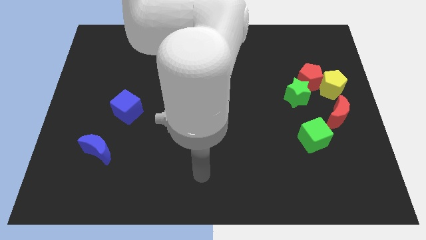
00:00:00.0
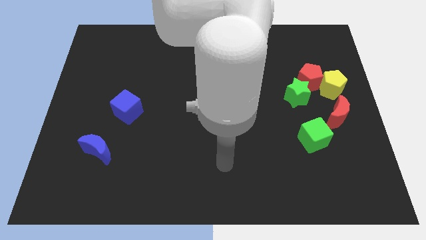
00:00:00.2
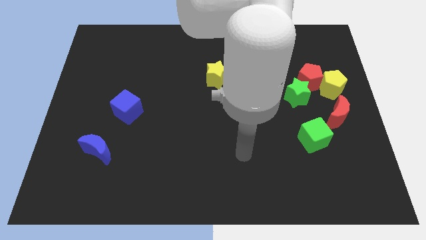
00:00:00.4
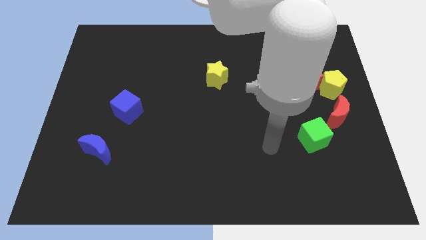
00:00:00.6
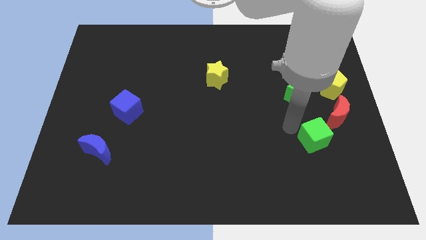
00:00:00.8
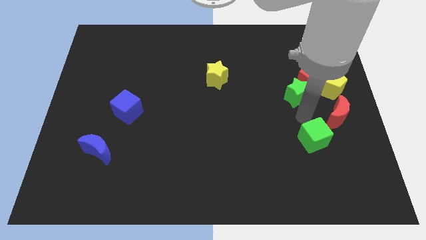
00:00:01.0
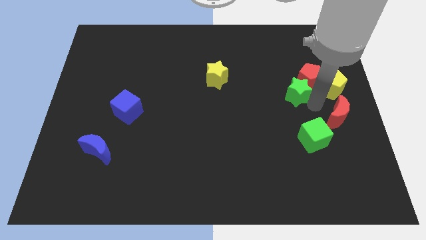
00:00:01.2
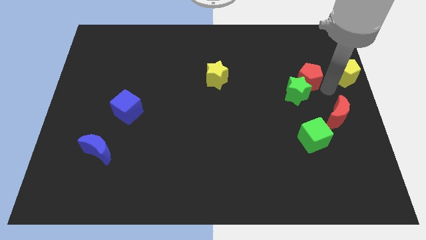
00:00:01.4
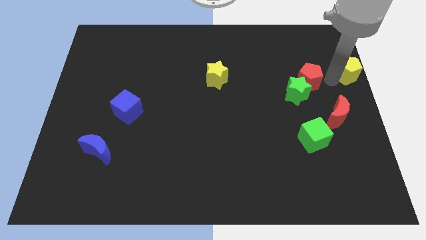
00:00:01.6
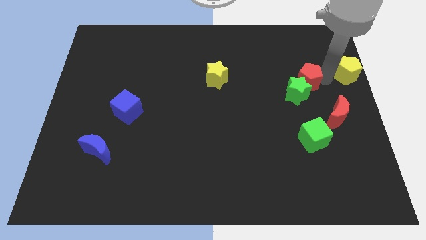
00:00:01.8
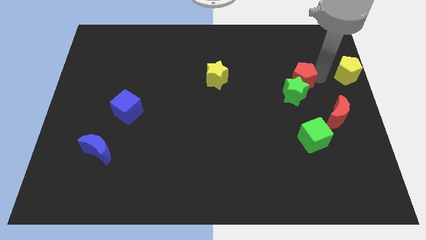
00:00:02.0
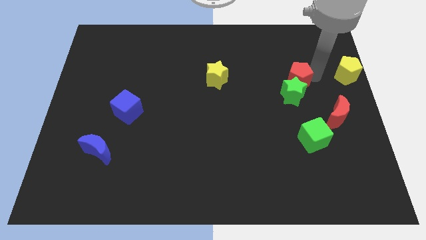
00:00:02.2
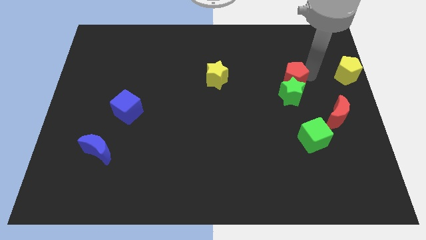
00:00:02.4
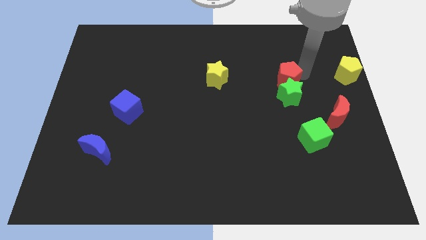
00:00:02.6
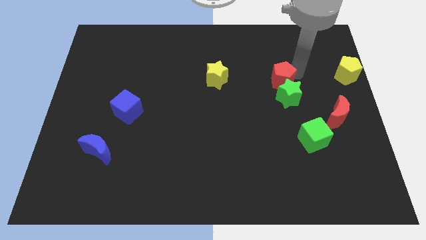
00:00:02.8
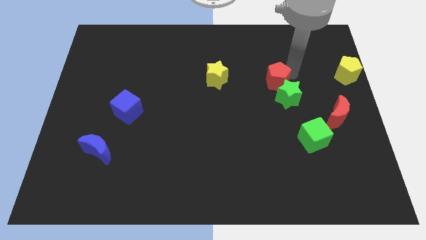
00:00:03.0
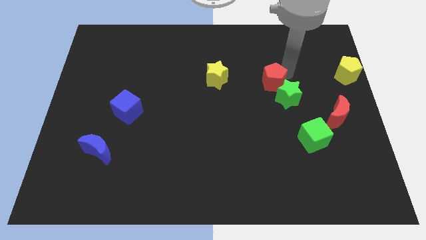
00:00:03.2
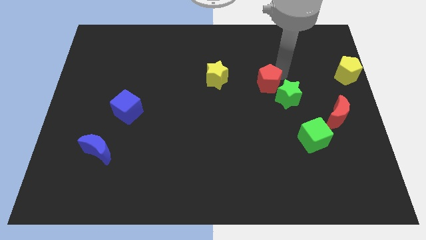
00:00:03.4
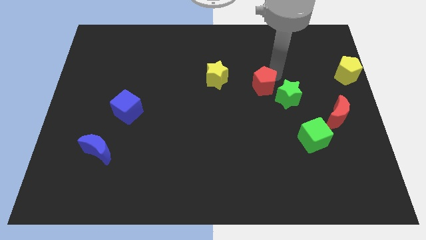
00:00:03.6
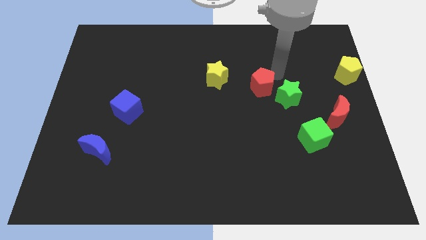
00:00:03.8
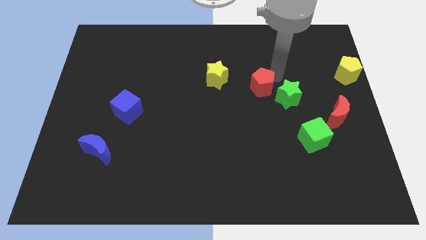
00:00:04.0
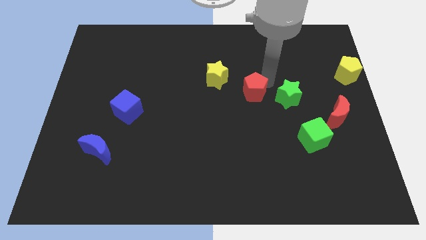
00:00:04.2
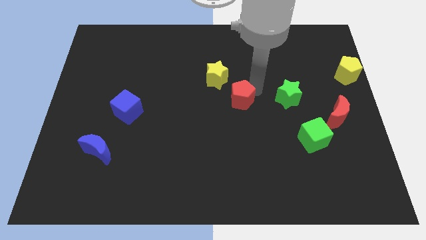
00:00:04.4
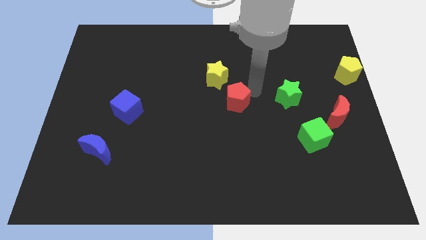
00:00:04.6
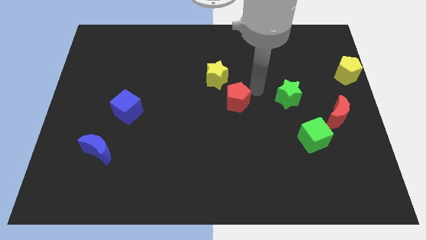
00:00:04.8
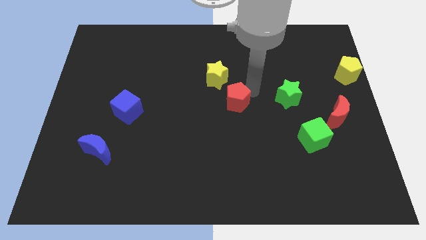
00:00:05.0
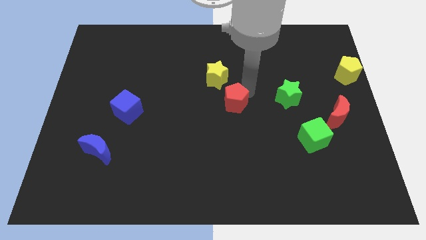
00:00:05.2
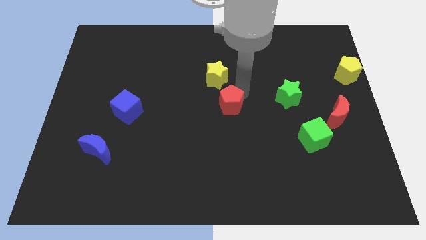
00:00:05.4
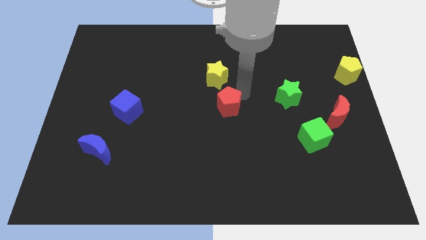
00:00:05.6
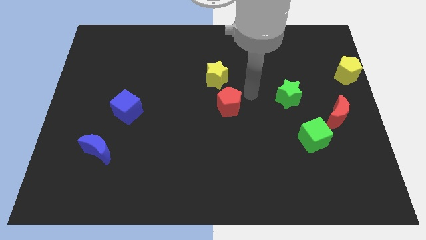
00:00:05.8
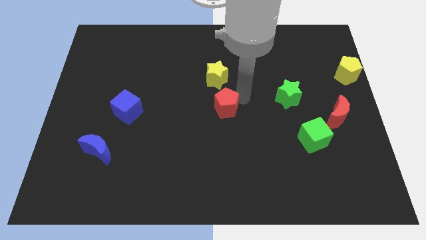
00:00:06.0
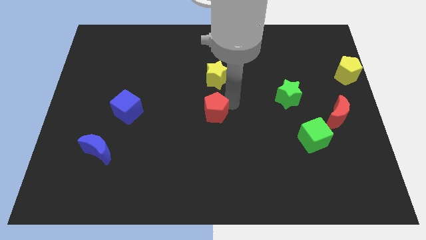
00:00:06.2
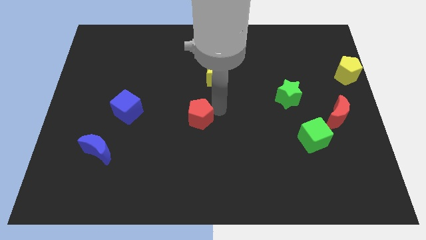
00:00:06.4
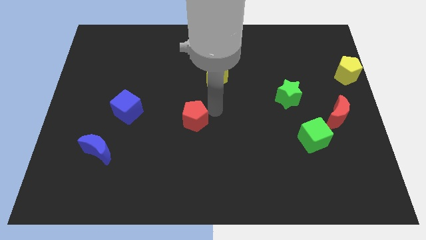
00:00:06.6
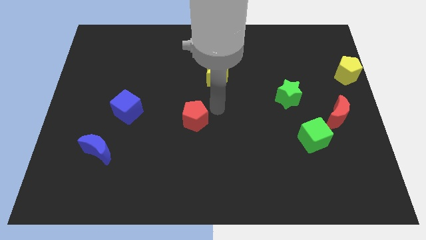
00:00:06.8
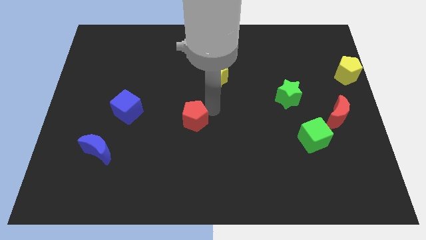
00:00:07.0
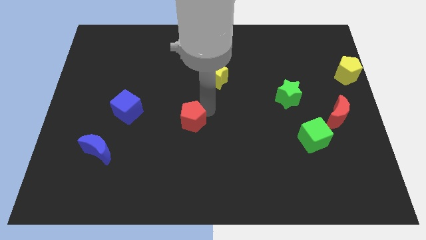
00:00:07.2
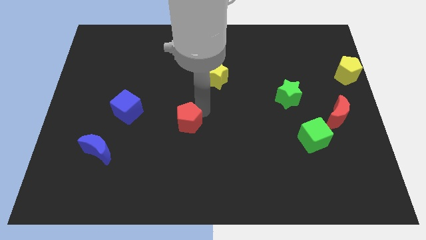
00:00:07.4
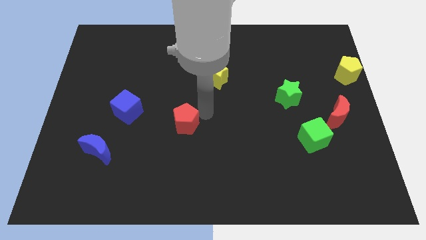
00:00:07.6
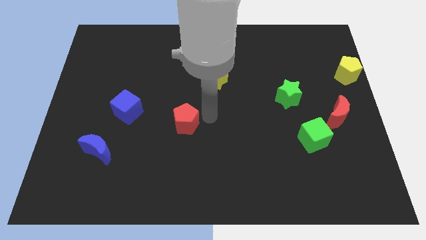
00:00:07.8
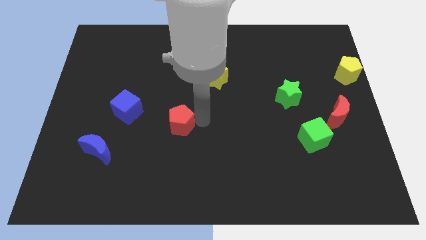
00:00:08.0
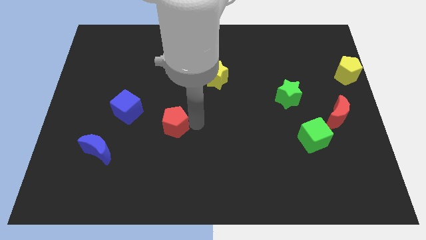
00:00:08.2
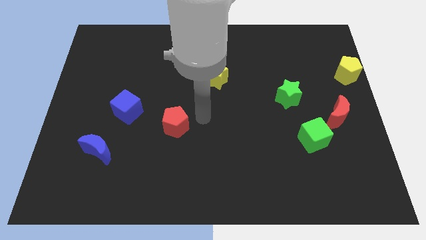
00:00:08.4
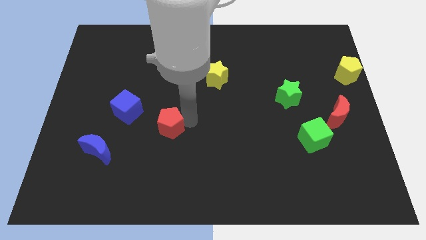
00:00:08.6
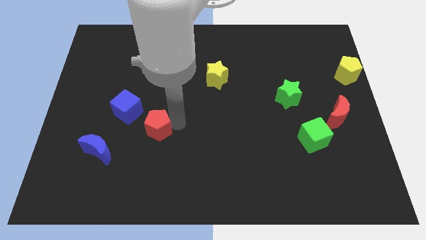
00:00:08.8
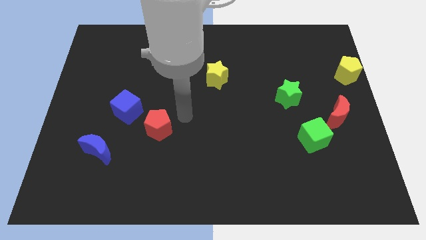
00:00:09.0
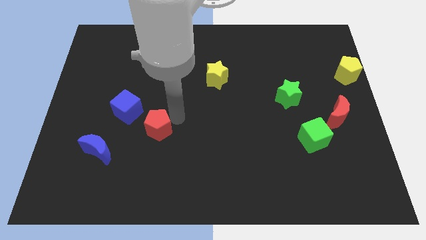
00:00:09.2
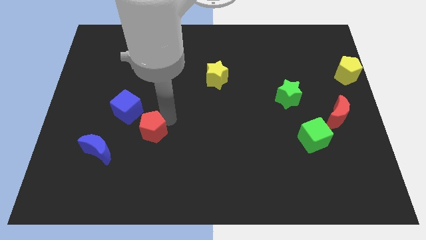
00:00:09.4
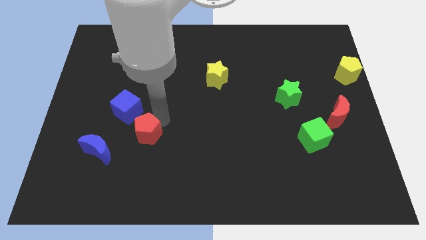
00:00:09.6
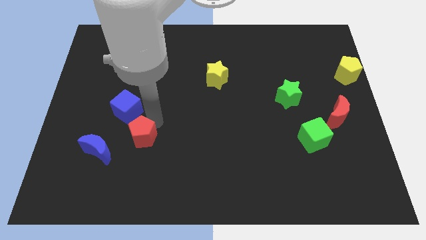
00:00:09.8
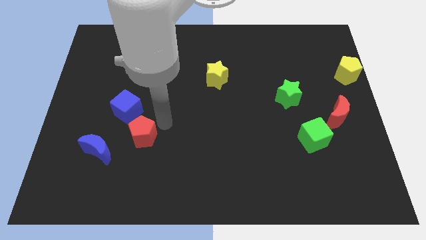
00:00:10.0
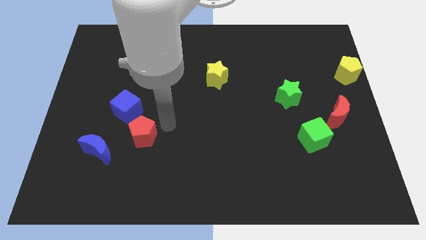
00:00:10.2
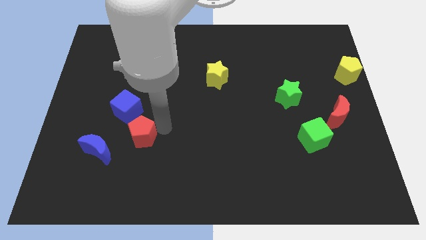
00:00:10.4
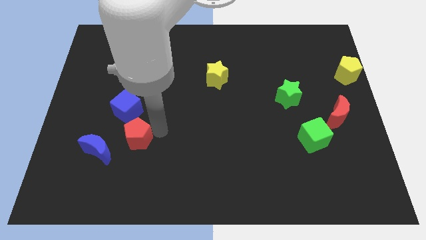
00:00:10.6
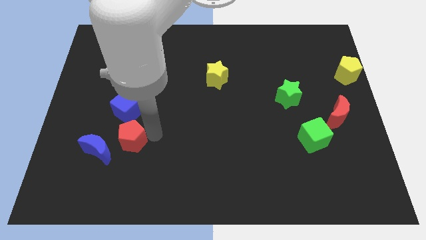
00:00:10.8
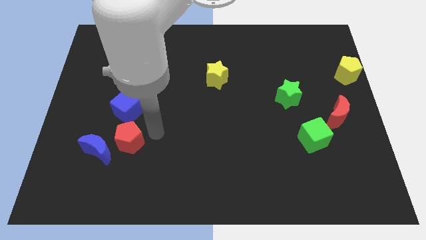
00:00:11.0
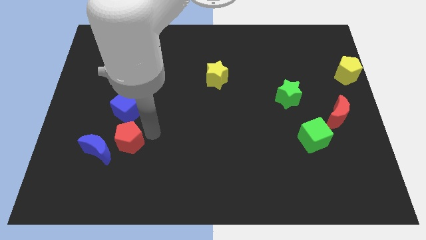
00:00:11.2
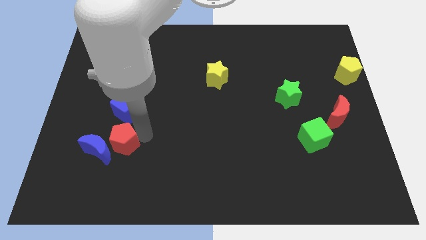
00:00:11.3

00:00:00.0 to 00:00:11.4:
put the red pentagon towards the blue moon

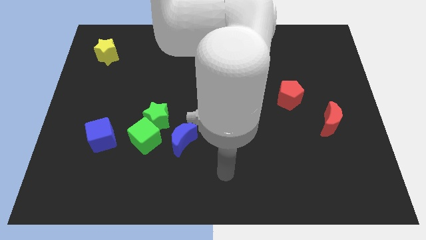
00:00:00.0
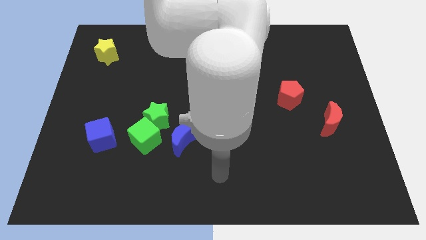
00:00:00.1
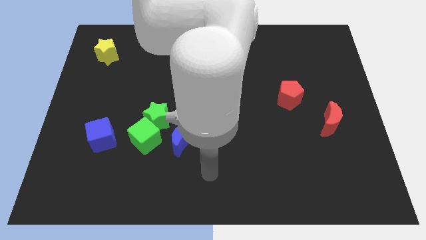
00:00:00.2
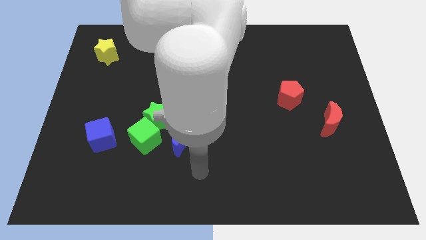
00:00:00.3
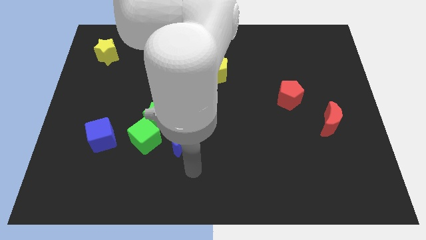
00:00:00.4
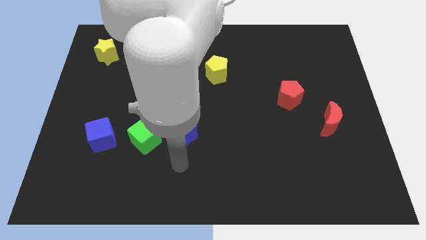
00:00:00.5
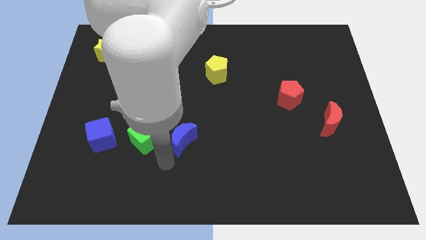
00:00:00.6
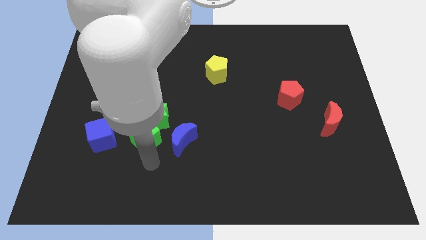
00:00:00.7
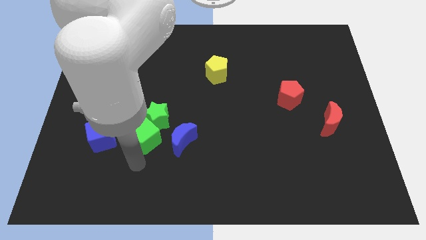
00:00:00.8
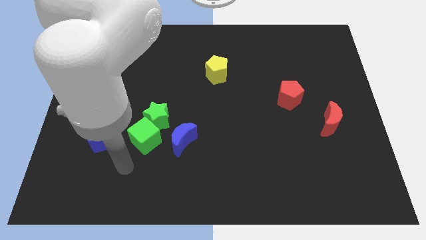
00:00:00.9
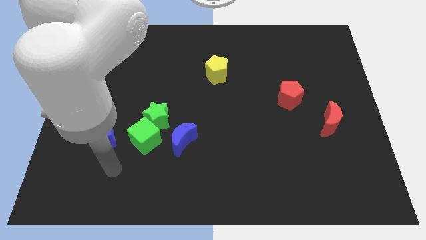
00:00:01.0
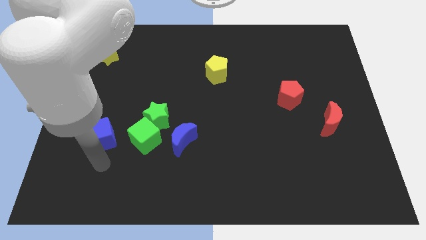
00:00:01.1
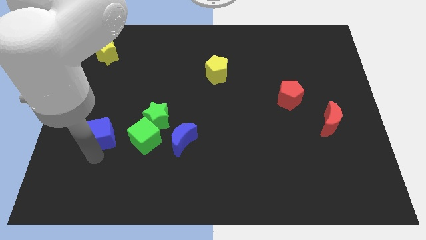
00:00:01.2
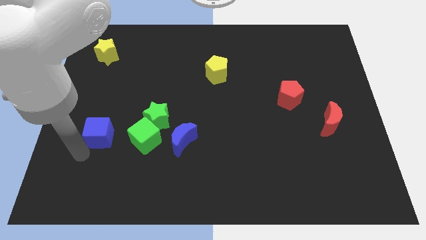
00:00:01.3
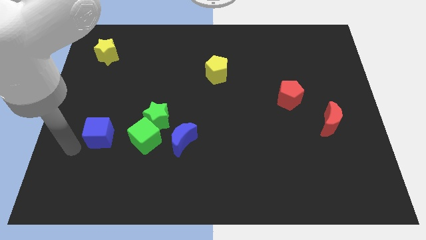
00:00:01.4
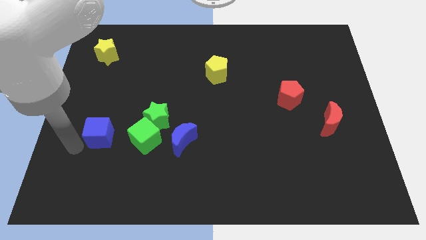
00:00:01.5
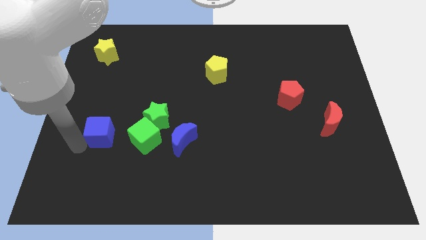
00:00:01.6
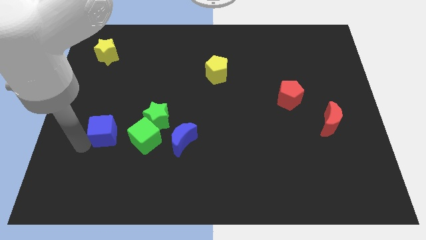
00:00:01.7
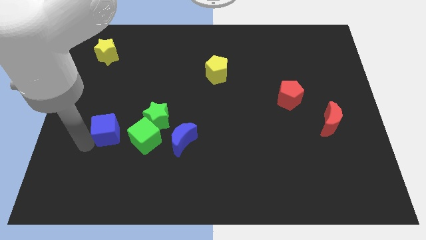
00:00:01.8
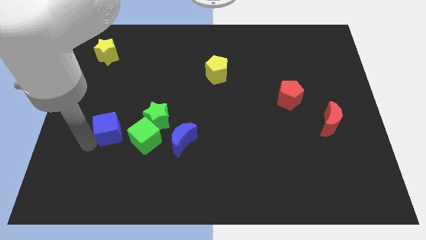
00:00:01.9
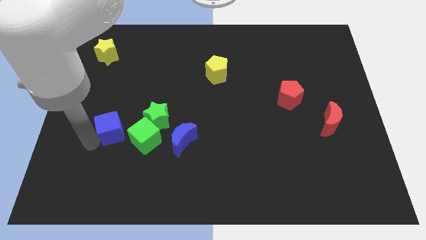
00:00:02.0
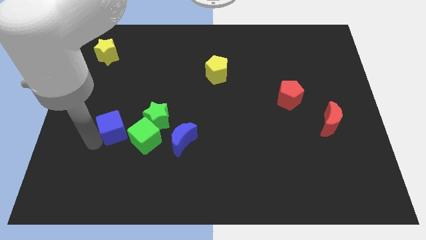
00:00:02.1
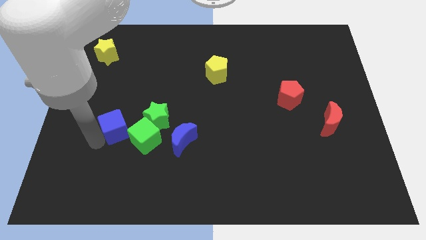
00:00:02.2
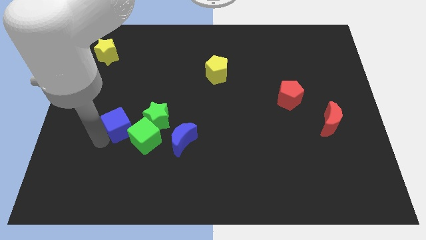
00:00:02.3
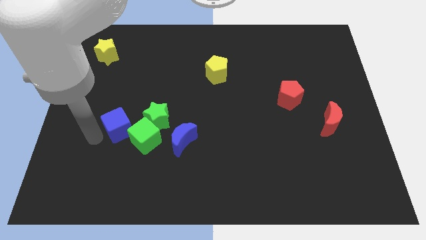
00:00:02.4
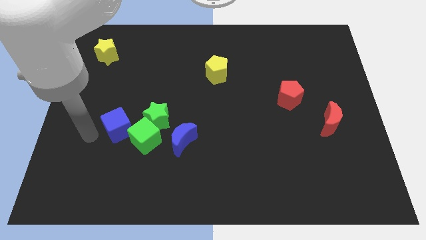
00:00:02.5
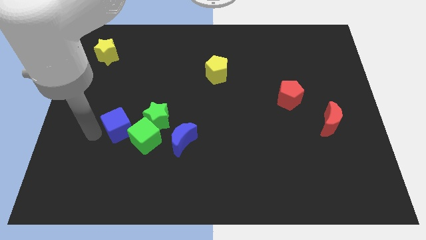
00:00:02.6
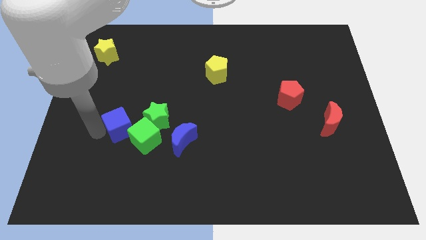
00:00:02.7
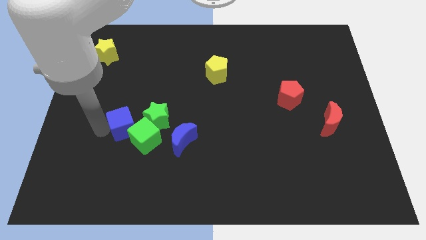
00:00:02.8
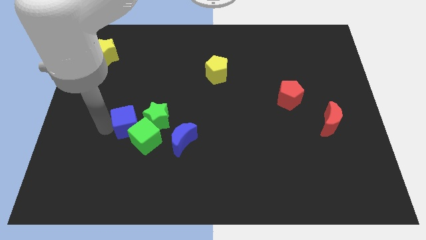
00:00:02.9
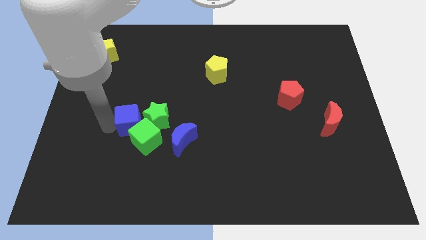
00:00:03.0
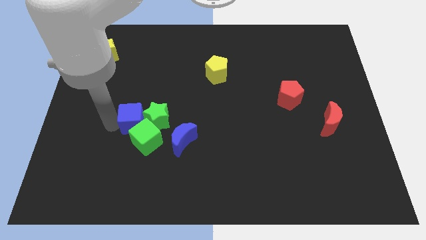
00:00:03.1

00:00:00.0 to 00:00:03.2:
slide the blue cube close to the green star
